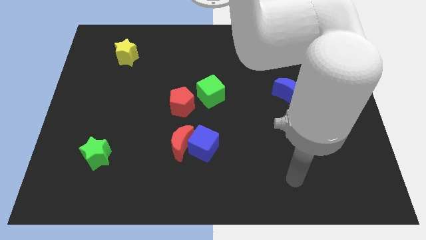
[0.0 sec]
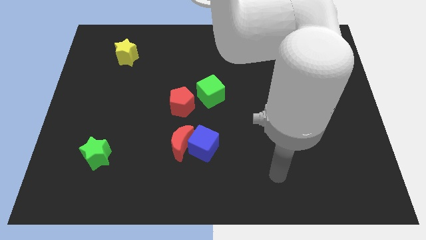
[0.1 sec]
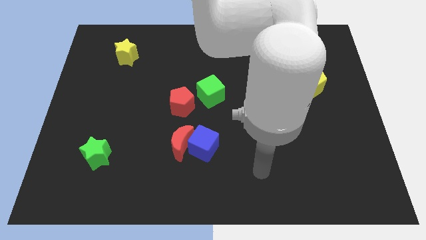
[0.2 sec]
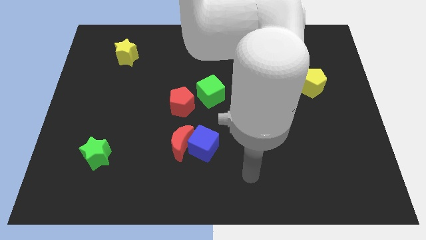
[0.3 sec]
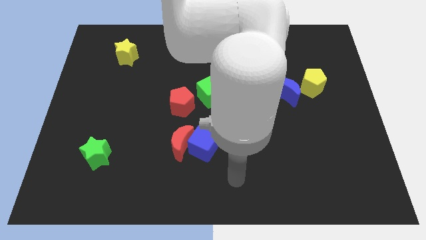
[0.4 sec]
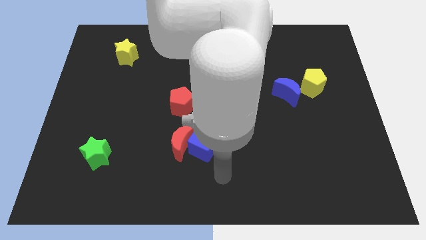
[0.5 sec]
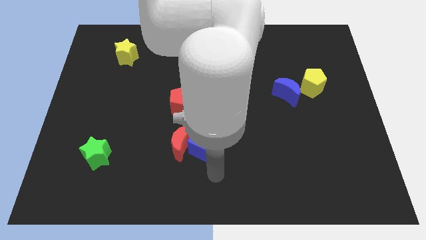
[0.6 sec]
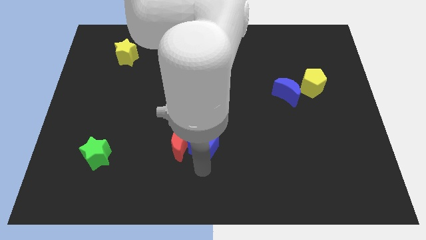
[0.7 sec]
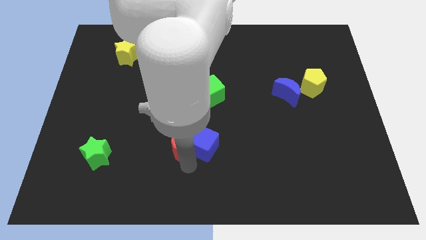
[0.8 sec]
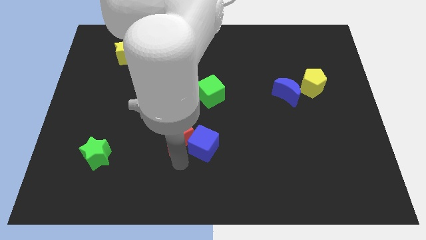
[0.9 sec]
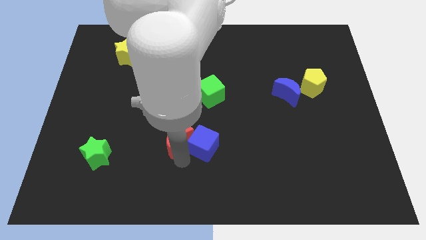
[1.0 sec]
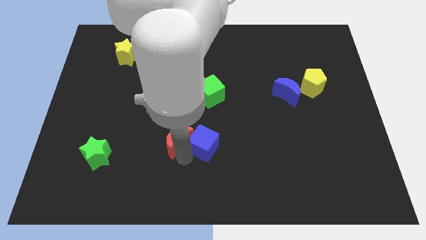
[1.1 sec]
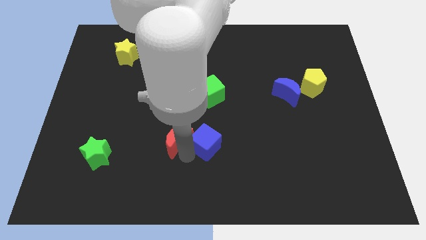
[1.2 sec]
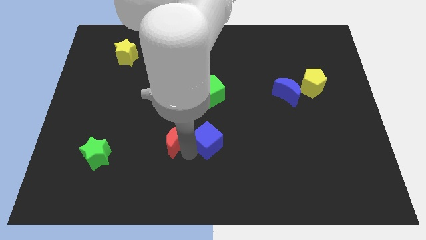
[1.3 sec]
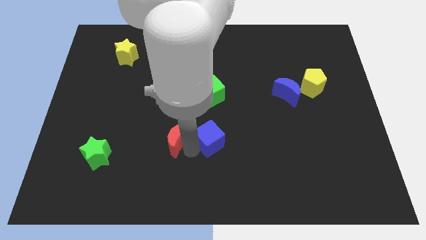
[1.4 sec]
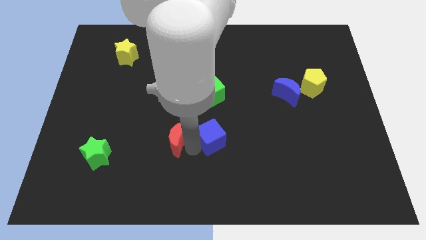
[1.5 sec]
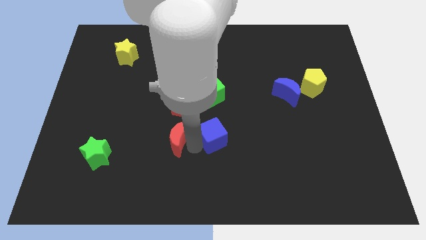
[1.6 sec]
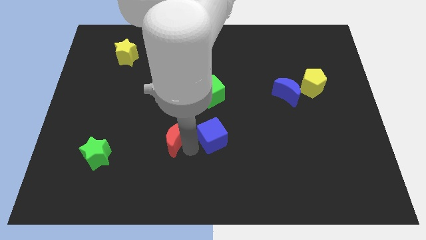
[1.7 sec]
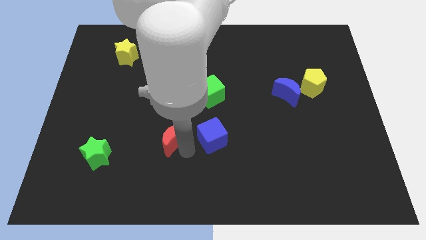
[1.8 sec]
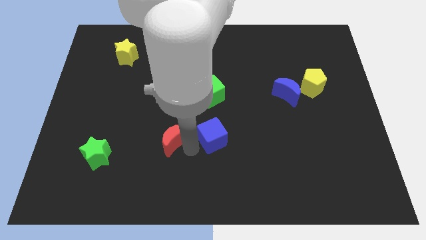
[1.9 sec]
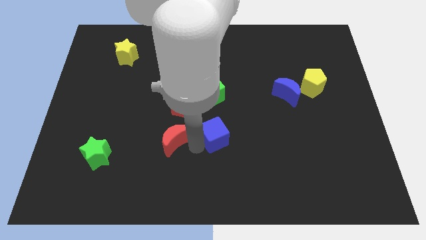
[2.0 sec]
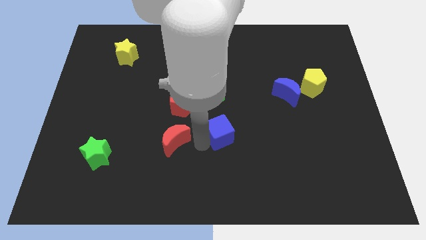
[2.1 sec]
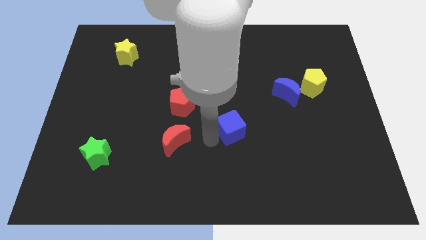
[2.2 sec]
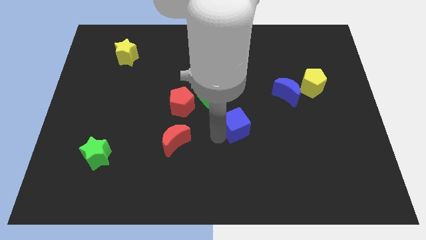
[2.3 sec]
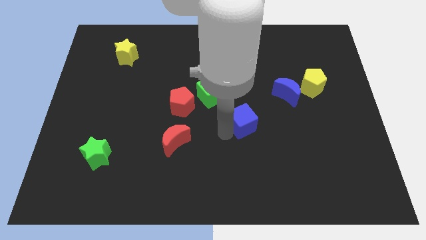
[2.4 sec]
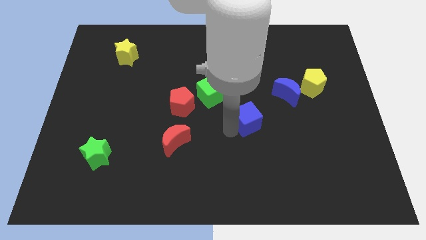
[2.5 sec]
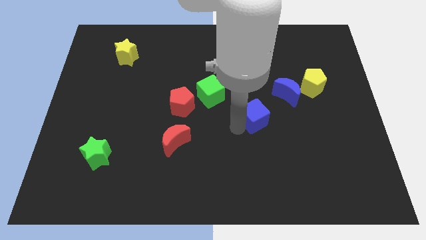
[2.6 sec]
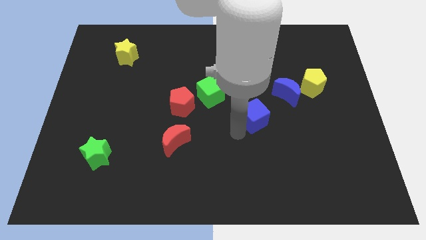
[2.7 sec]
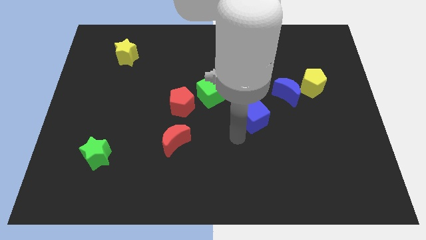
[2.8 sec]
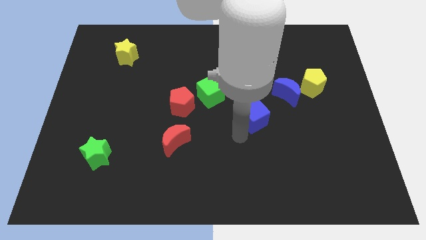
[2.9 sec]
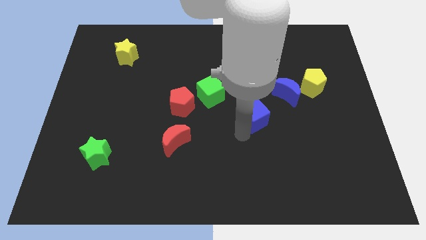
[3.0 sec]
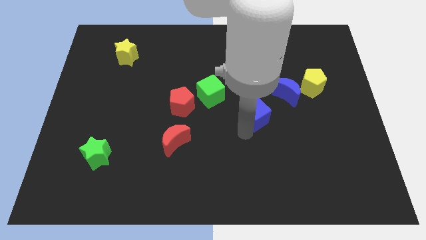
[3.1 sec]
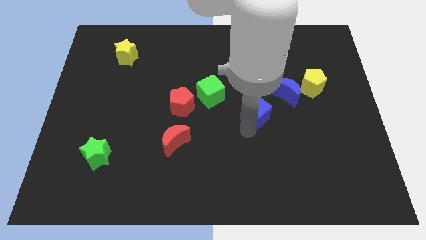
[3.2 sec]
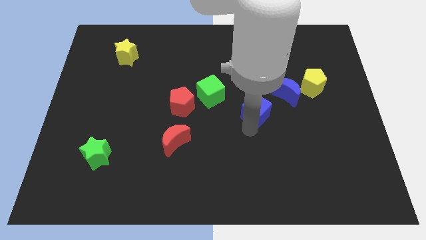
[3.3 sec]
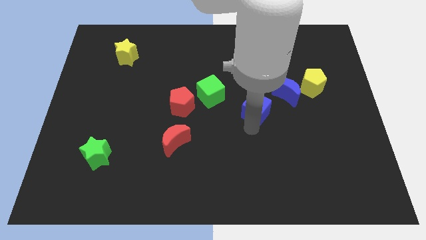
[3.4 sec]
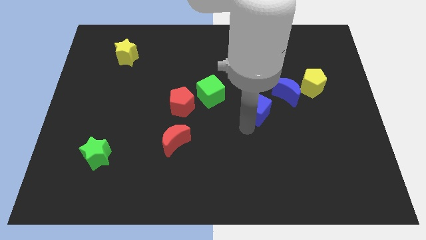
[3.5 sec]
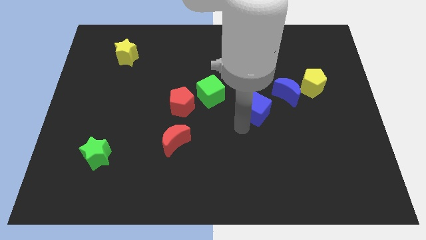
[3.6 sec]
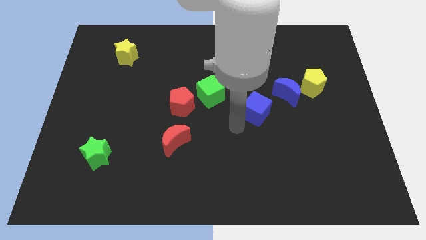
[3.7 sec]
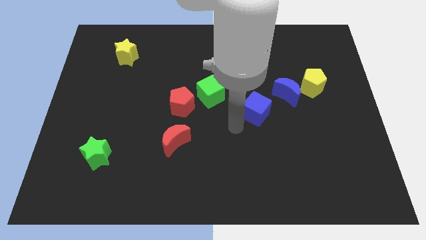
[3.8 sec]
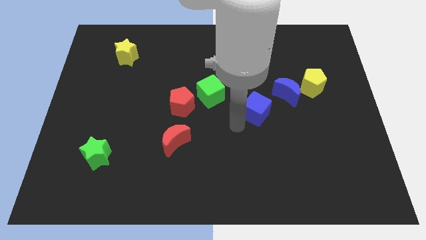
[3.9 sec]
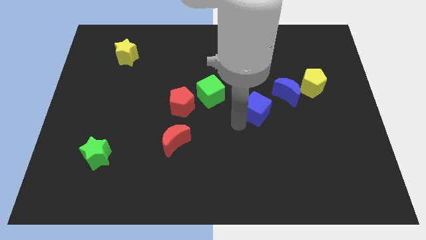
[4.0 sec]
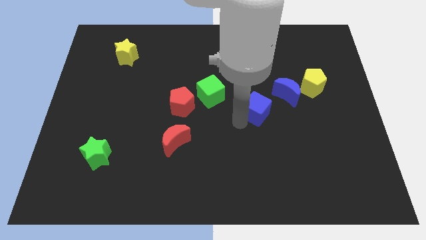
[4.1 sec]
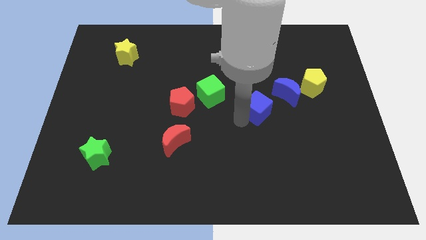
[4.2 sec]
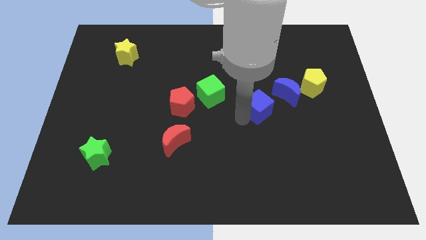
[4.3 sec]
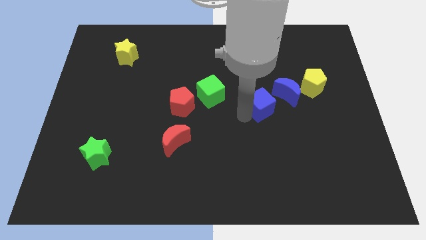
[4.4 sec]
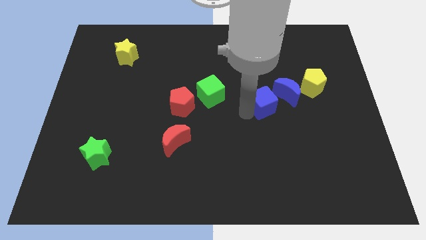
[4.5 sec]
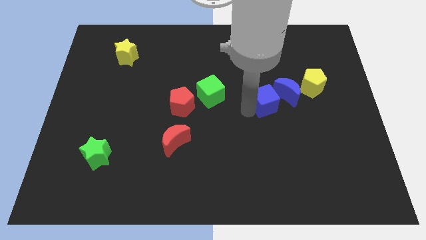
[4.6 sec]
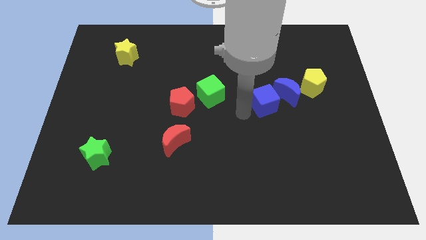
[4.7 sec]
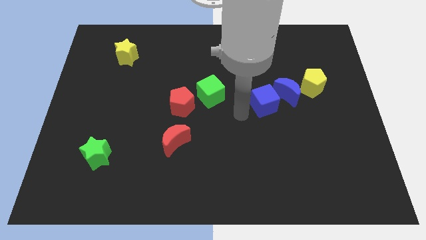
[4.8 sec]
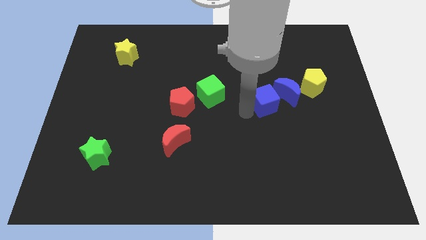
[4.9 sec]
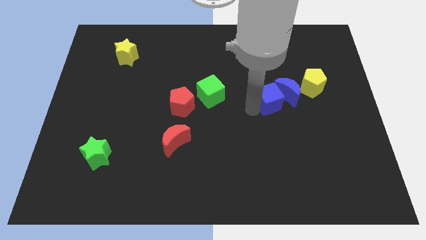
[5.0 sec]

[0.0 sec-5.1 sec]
move the blue cube close to the blue moon

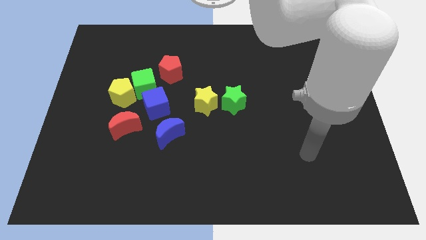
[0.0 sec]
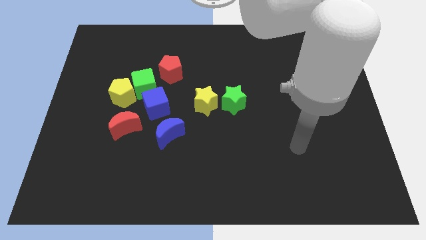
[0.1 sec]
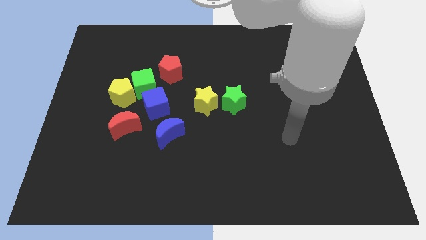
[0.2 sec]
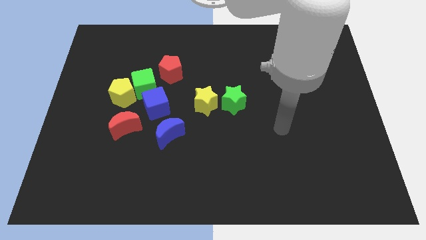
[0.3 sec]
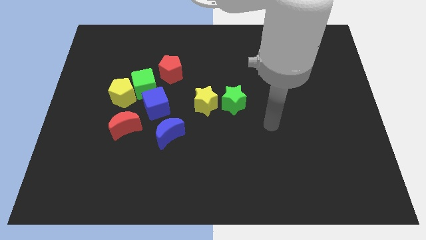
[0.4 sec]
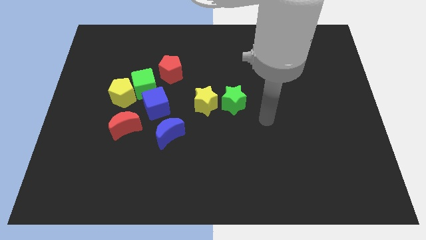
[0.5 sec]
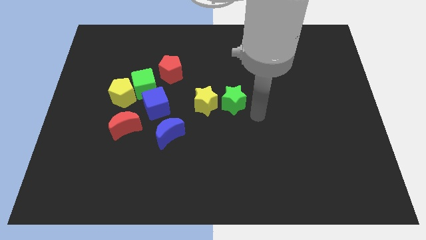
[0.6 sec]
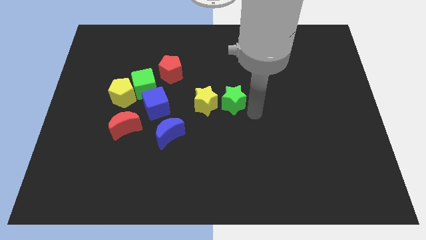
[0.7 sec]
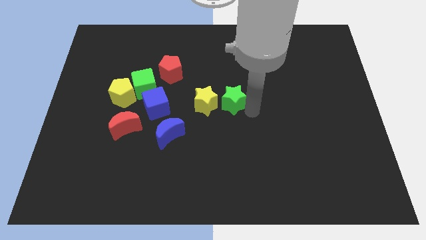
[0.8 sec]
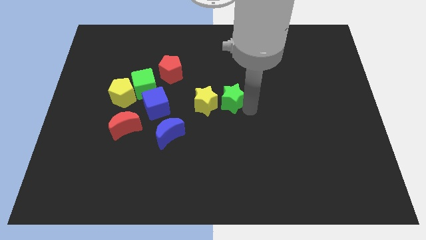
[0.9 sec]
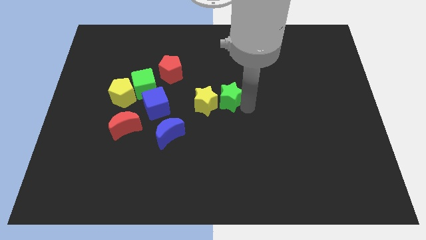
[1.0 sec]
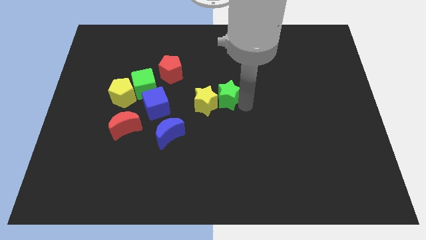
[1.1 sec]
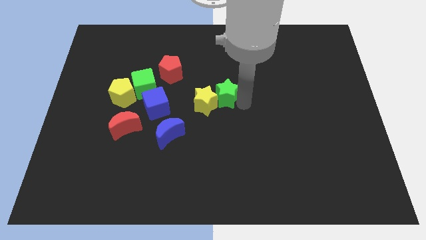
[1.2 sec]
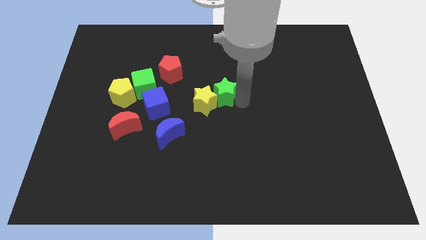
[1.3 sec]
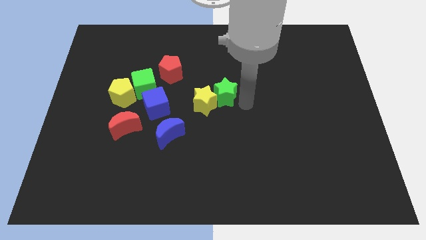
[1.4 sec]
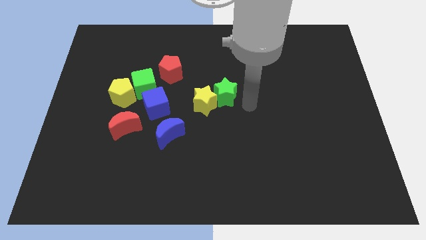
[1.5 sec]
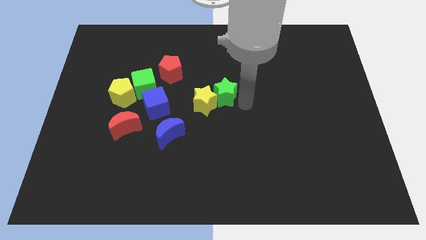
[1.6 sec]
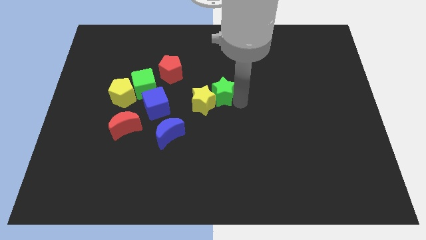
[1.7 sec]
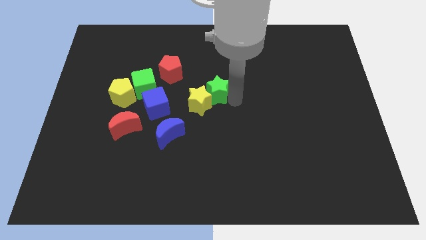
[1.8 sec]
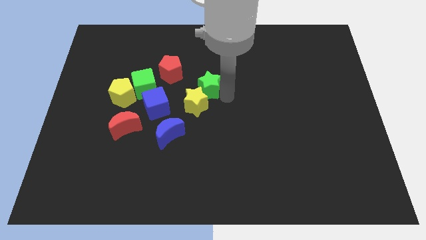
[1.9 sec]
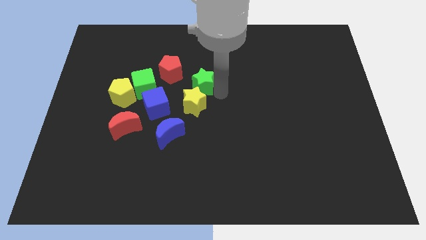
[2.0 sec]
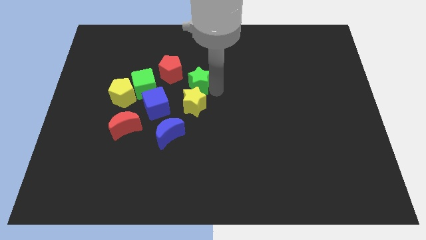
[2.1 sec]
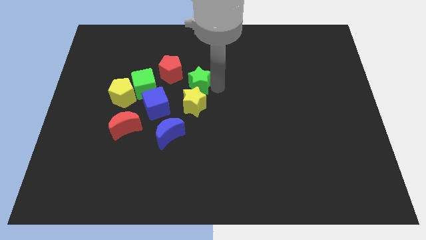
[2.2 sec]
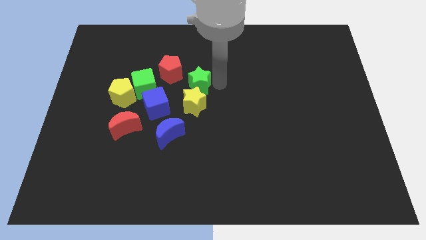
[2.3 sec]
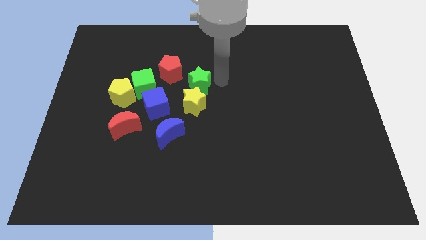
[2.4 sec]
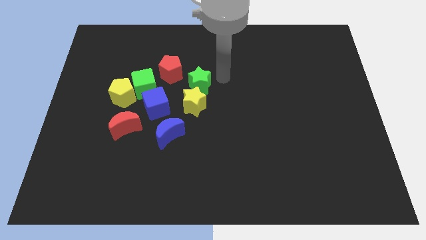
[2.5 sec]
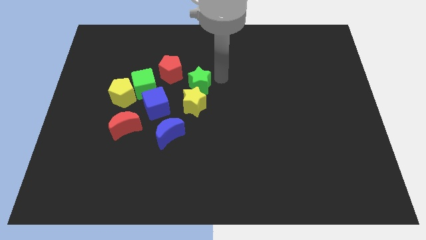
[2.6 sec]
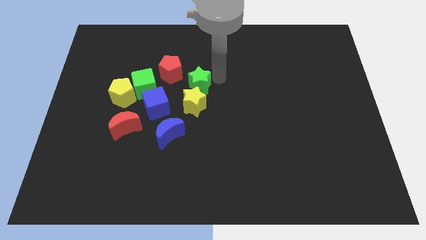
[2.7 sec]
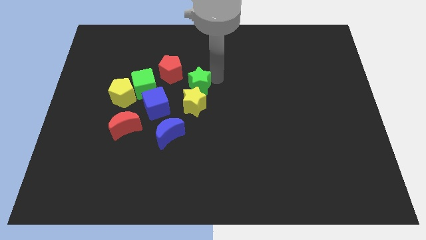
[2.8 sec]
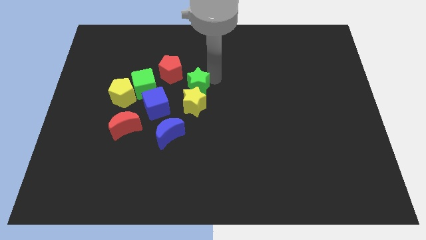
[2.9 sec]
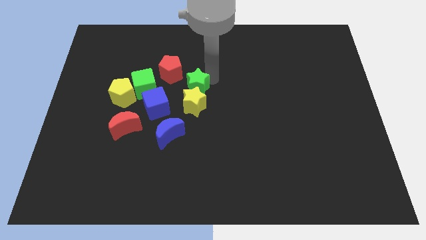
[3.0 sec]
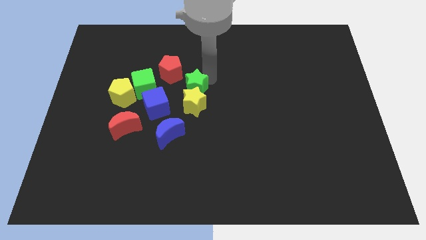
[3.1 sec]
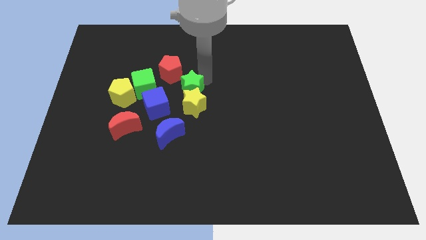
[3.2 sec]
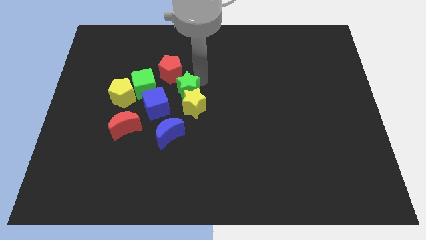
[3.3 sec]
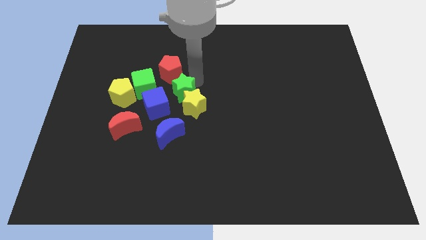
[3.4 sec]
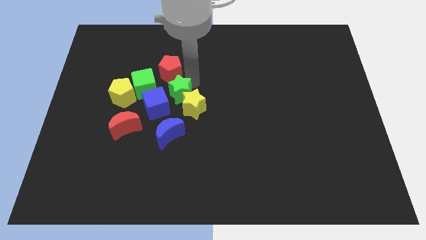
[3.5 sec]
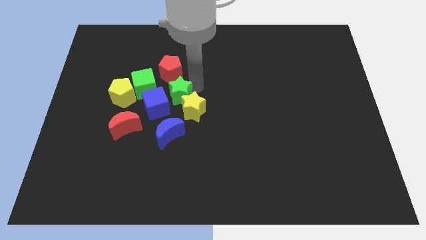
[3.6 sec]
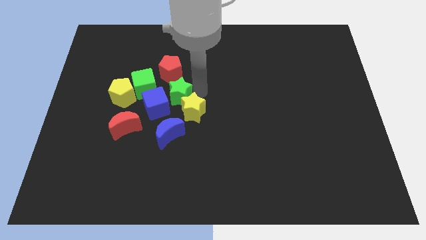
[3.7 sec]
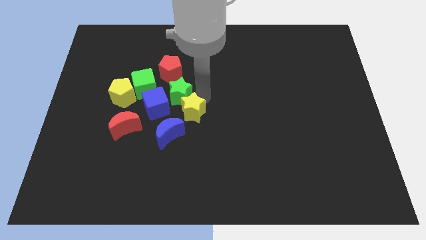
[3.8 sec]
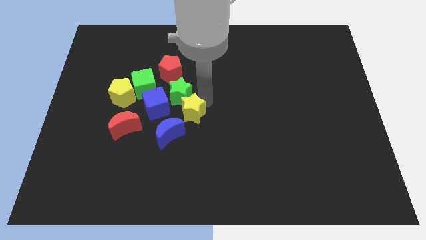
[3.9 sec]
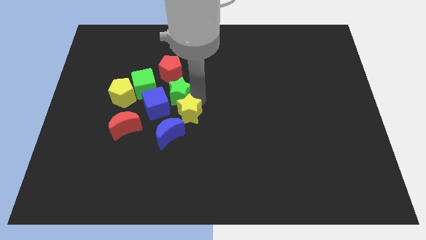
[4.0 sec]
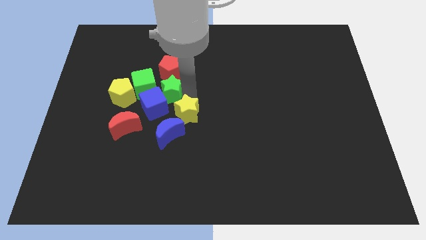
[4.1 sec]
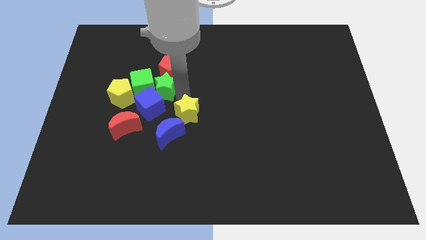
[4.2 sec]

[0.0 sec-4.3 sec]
slide the green star to the green cube
